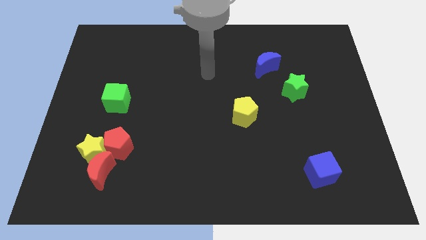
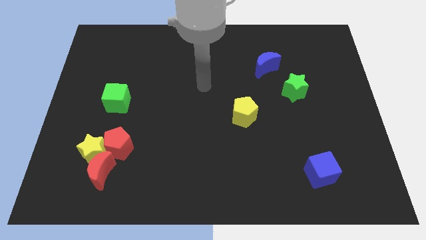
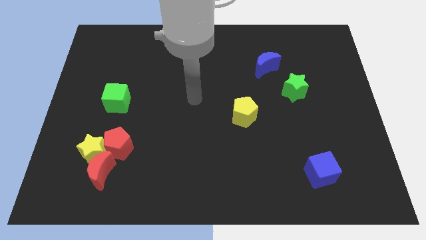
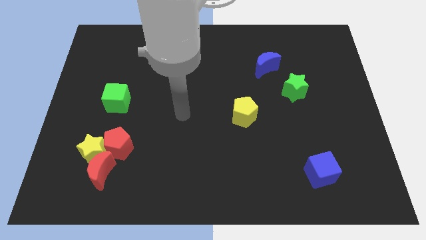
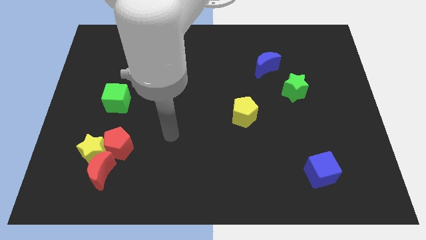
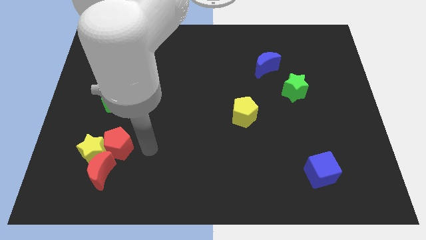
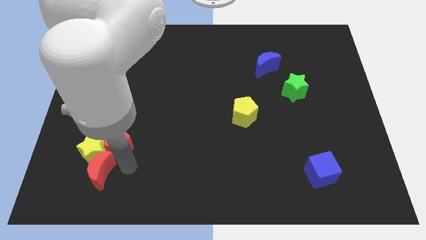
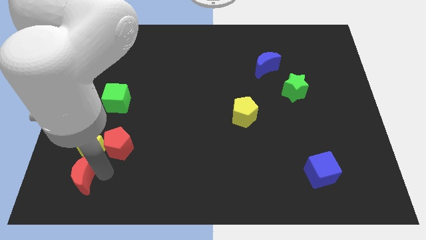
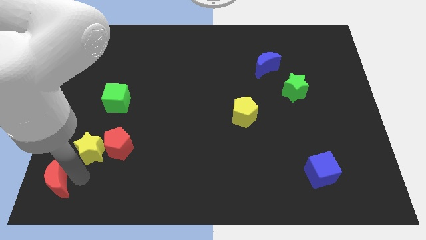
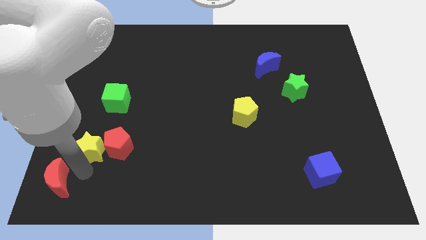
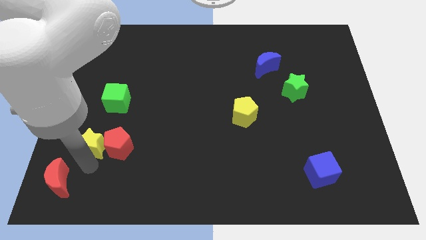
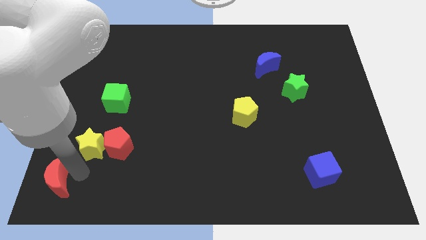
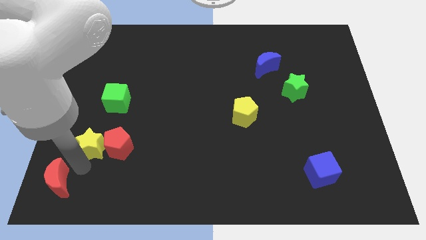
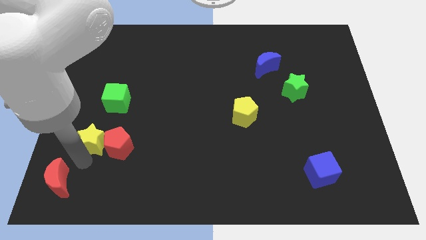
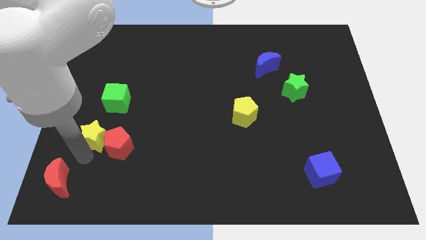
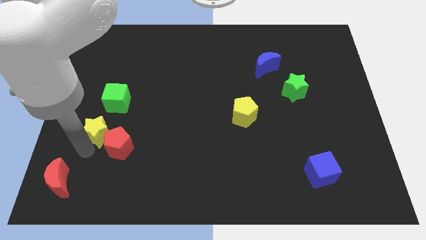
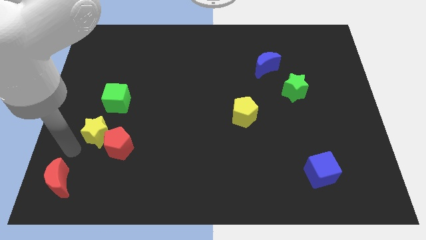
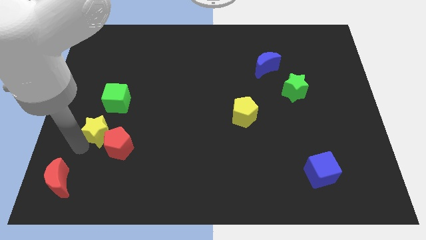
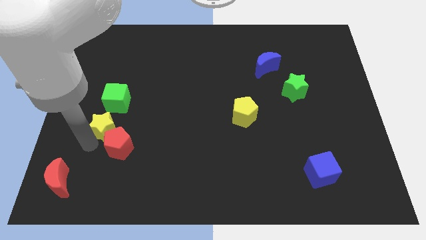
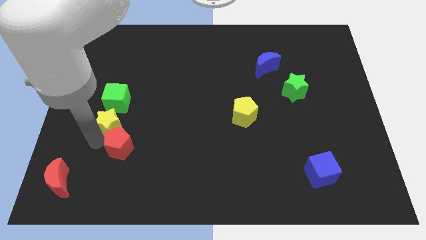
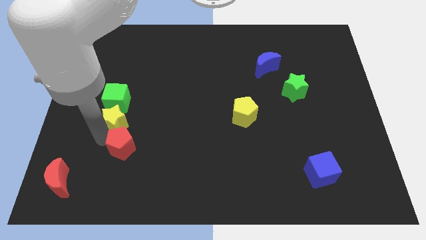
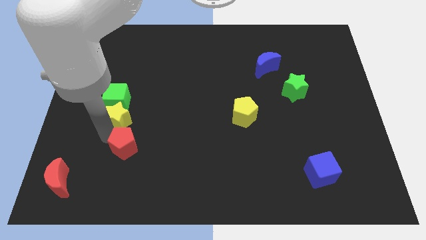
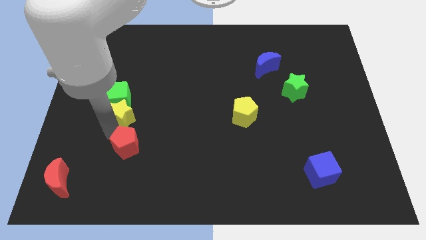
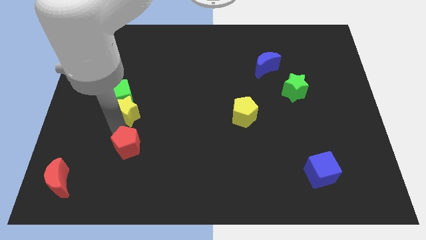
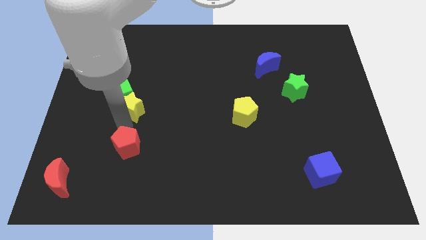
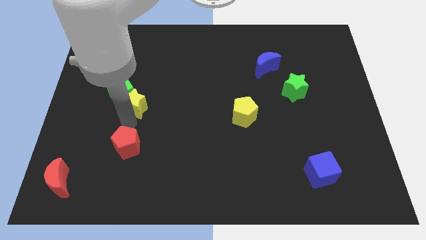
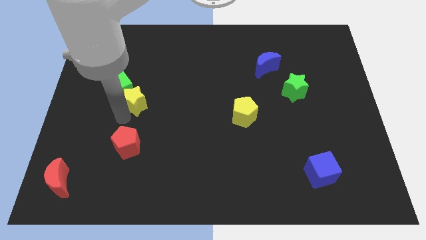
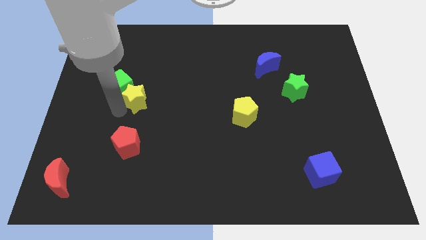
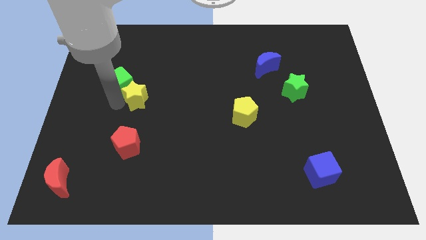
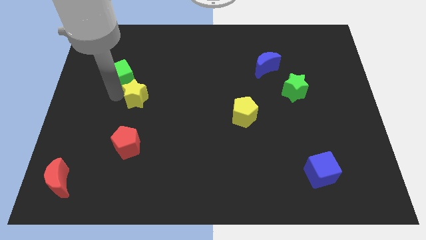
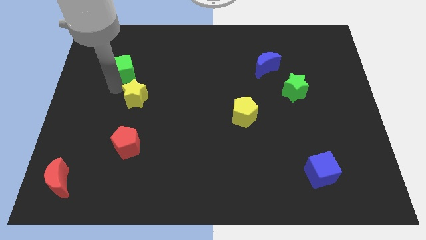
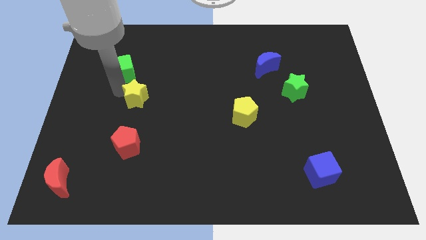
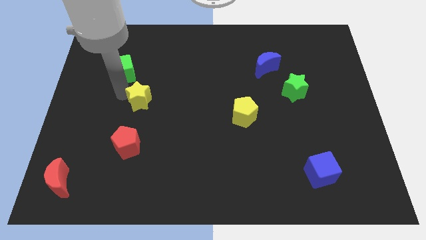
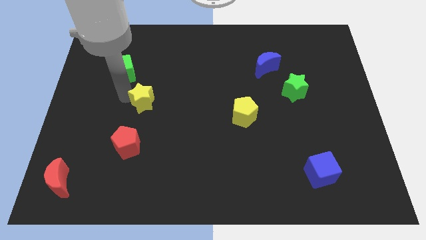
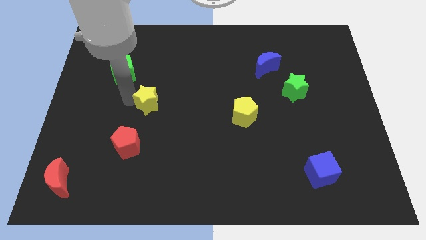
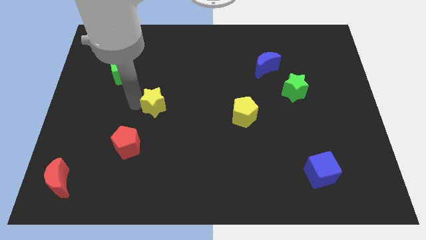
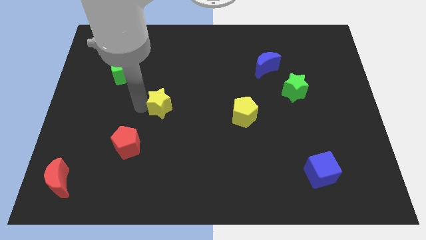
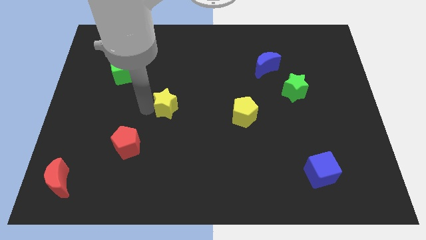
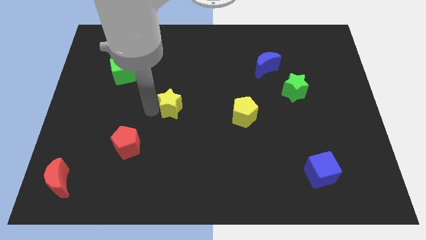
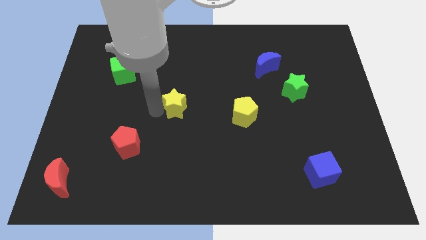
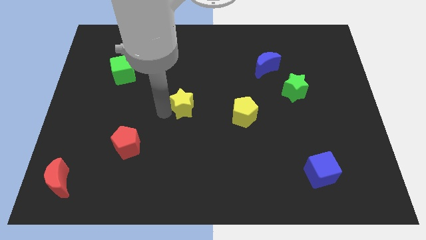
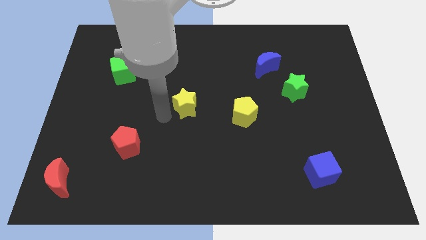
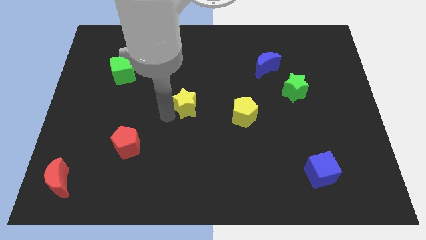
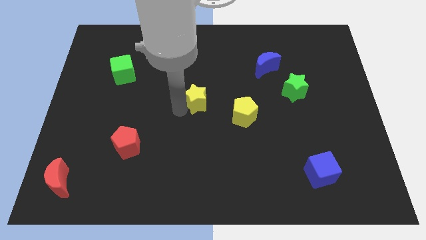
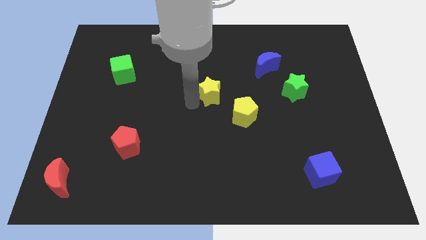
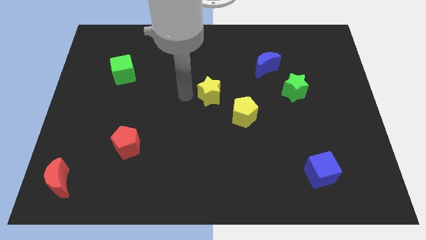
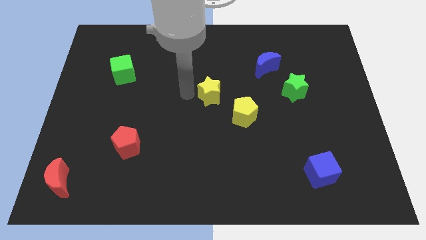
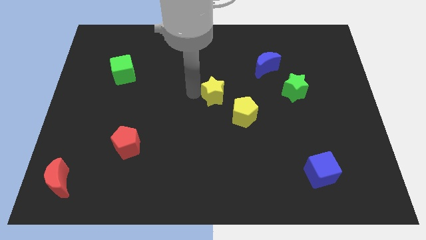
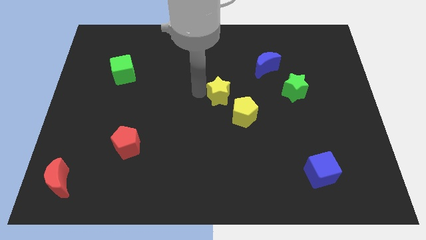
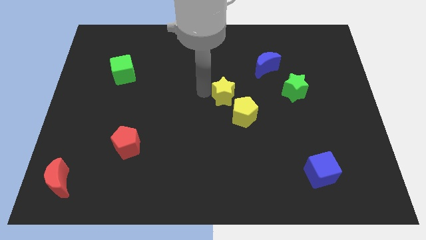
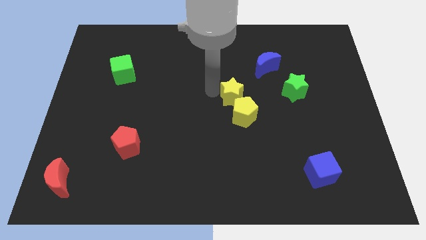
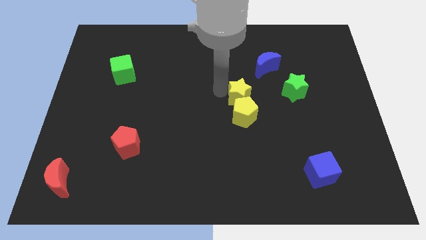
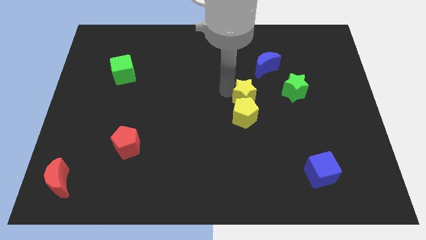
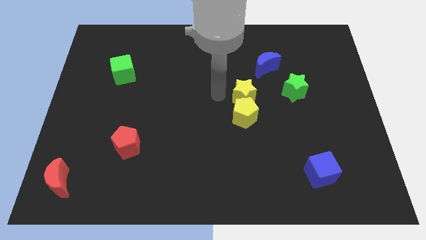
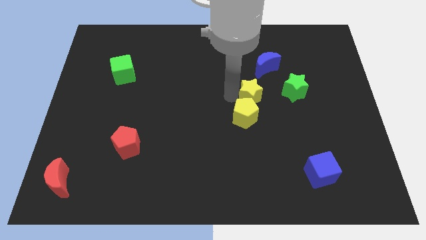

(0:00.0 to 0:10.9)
push the yellow star to the bottom side of the blue moon

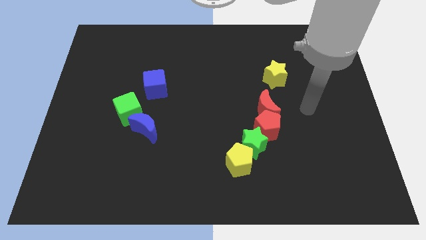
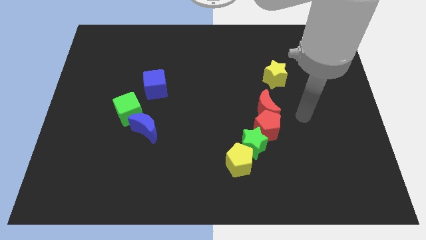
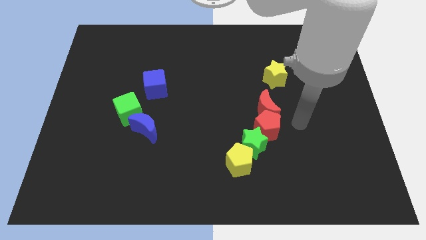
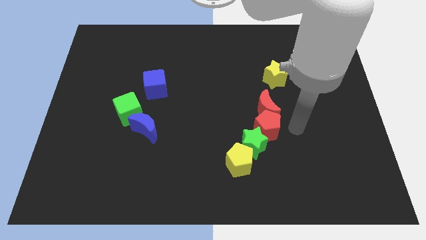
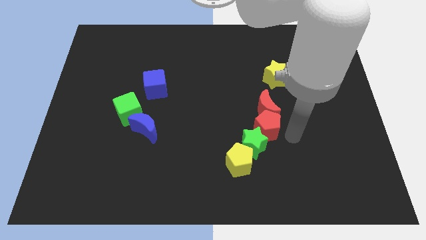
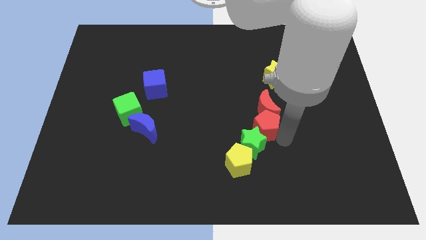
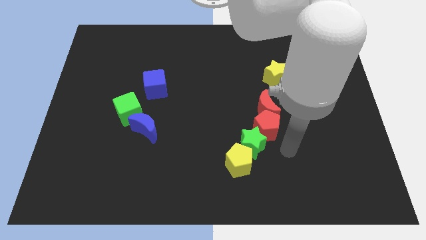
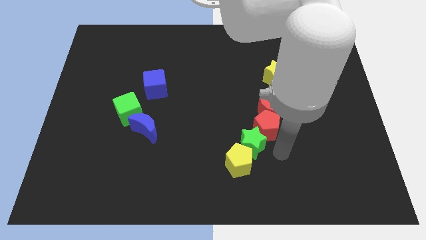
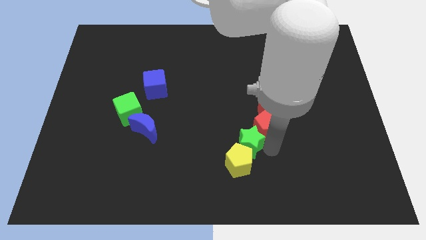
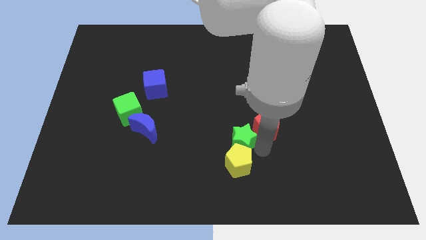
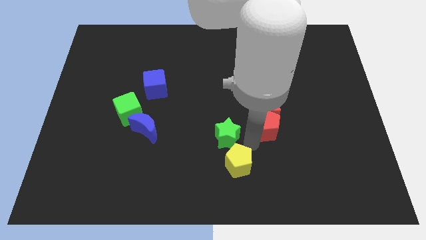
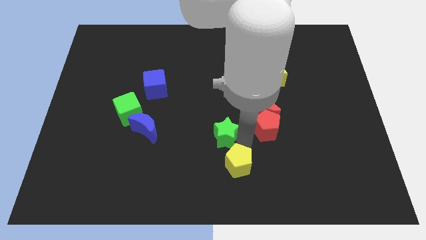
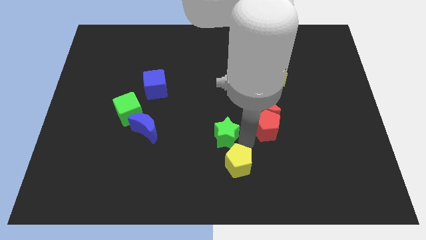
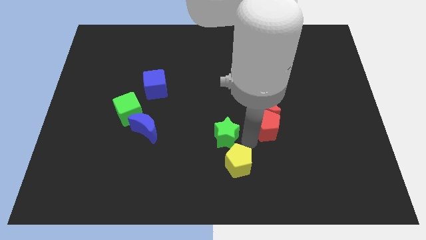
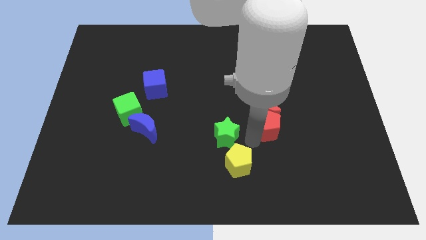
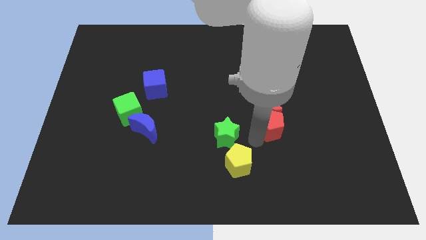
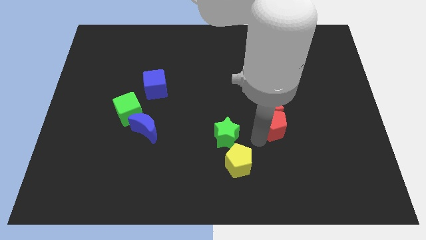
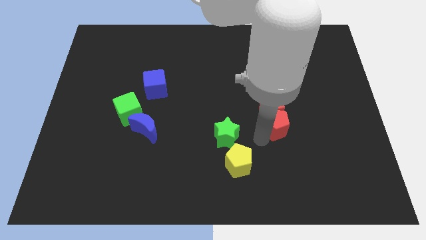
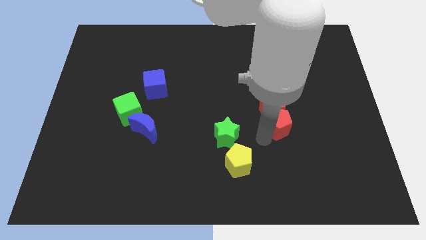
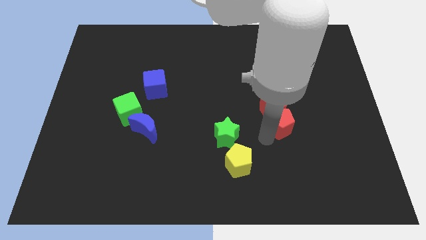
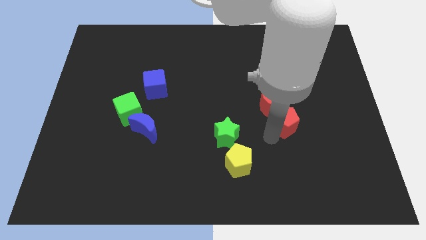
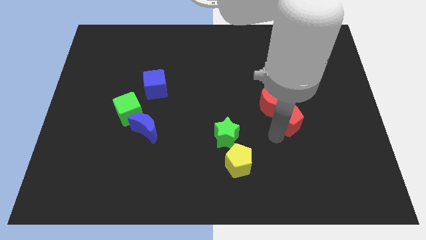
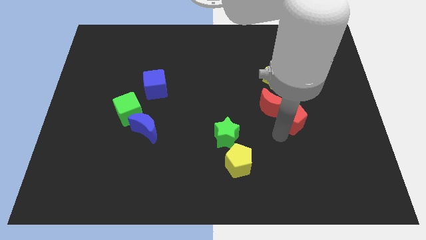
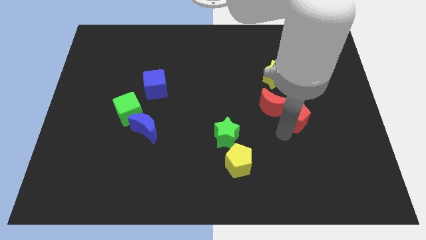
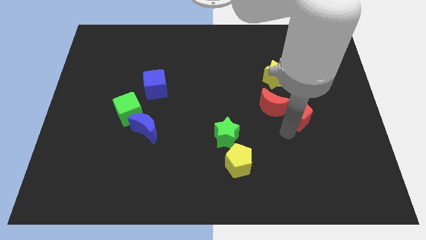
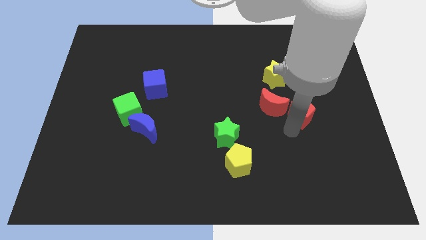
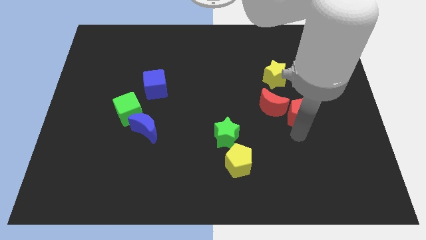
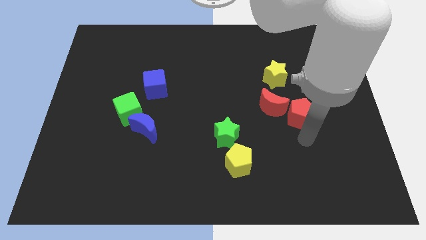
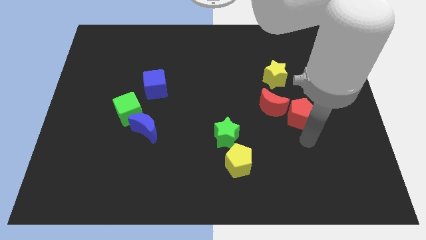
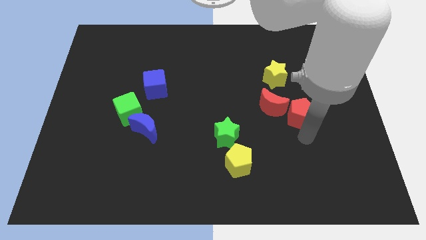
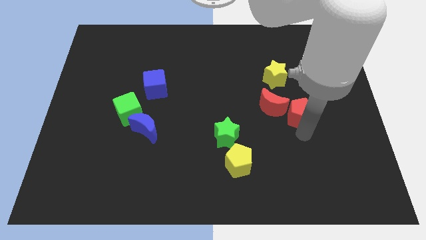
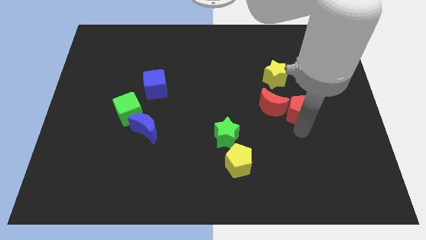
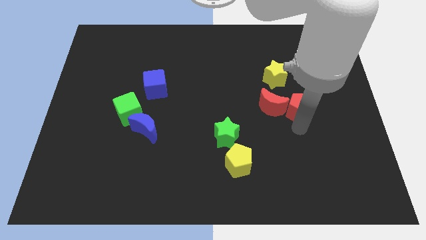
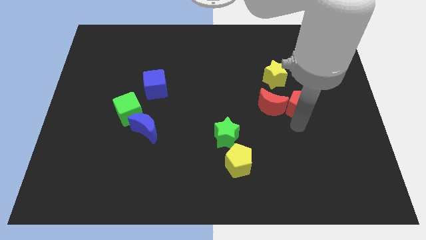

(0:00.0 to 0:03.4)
slide the red pentagon diagonally up and to the right of the red moon
